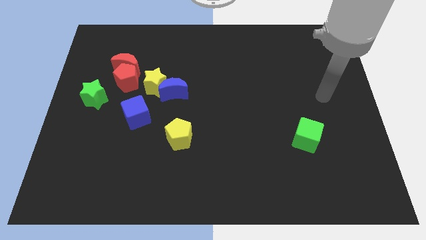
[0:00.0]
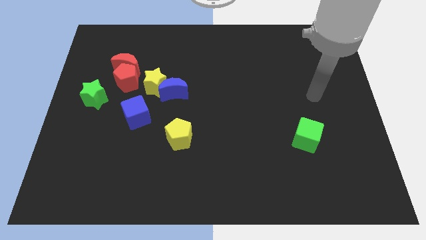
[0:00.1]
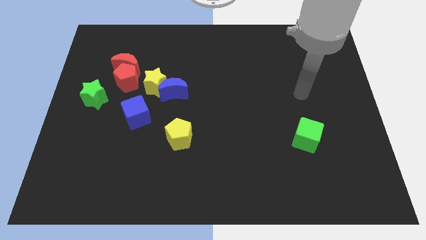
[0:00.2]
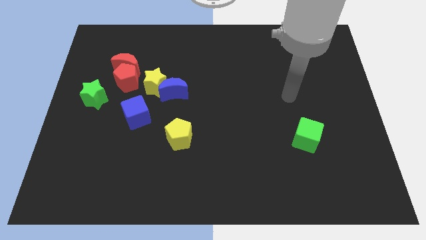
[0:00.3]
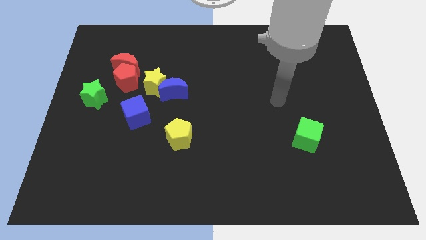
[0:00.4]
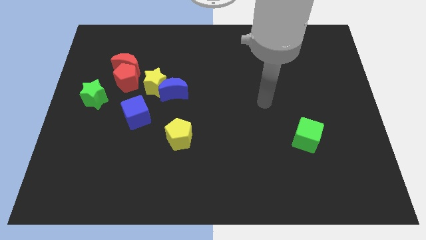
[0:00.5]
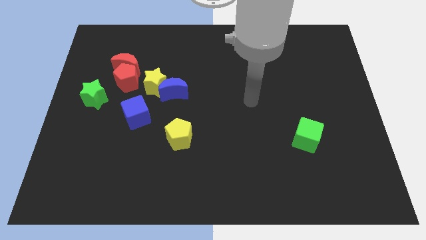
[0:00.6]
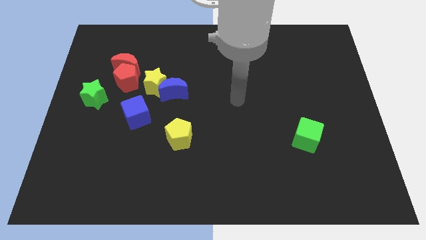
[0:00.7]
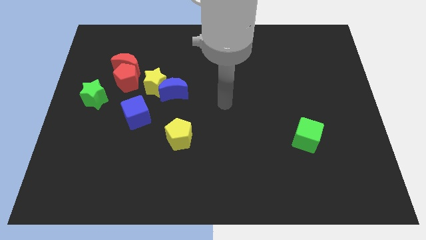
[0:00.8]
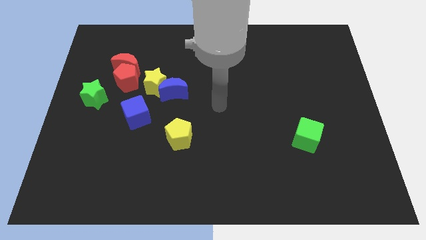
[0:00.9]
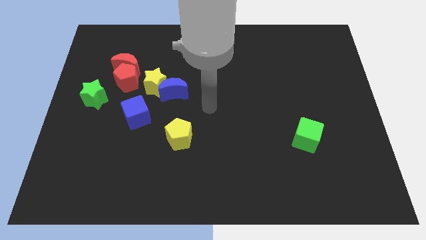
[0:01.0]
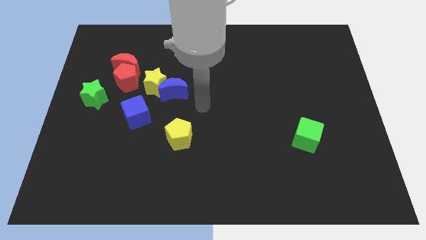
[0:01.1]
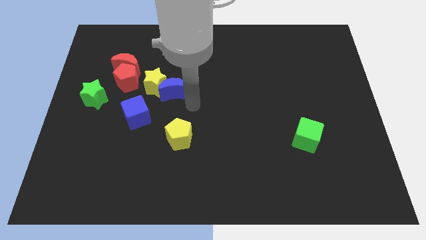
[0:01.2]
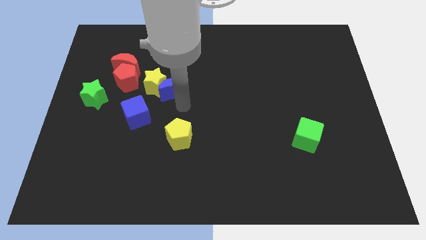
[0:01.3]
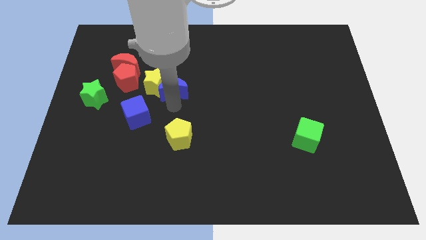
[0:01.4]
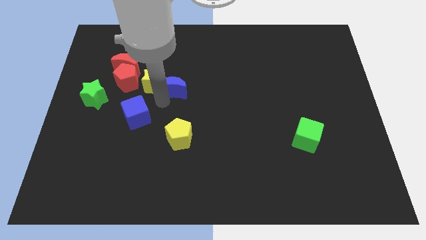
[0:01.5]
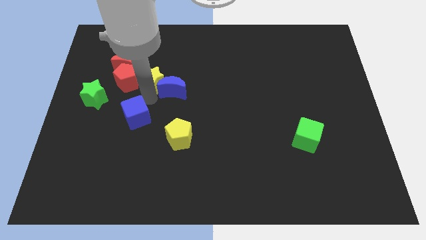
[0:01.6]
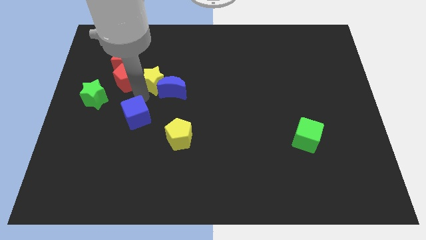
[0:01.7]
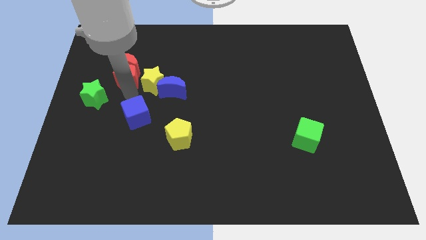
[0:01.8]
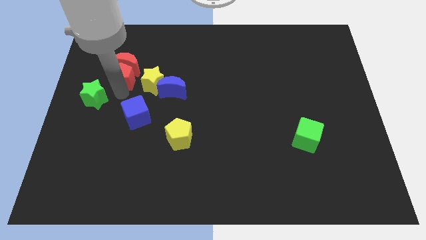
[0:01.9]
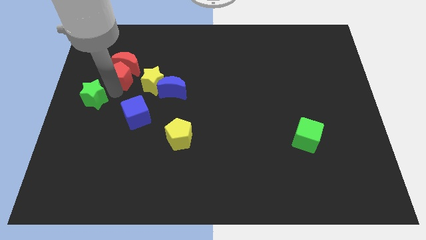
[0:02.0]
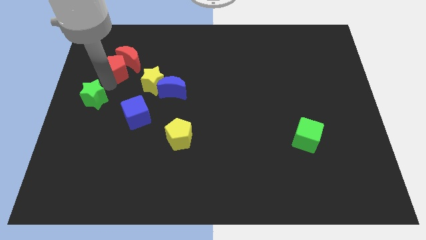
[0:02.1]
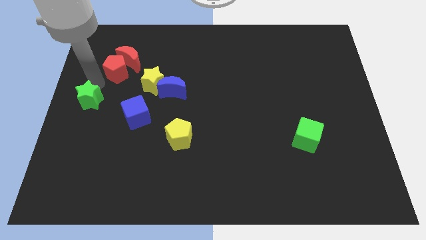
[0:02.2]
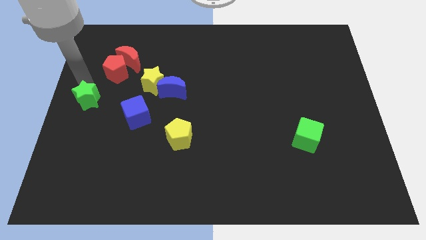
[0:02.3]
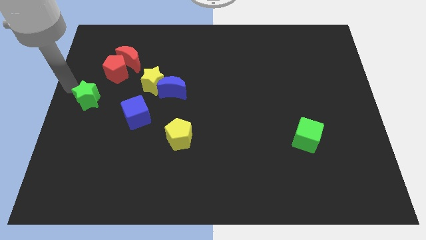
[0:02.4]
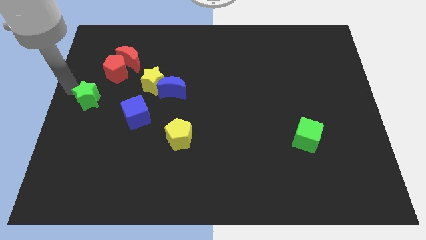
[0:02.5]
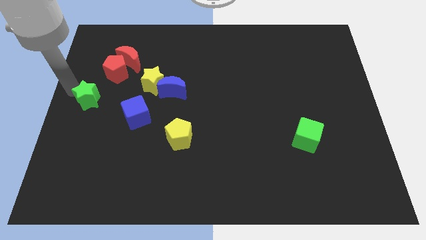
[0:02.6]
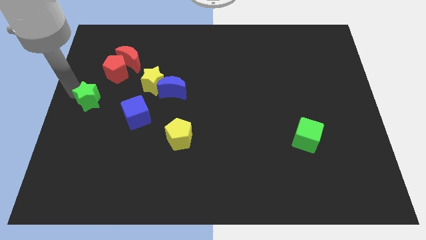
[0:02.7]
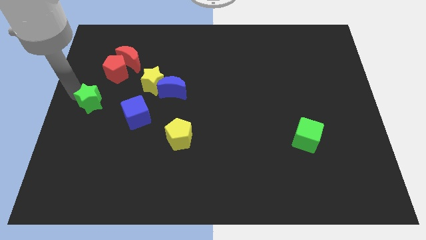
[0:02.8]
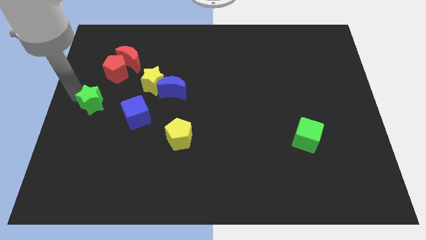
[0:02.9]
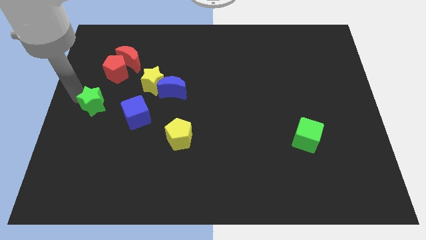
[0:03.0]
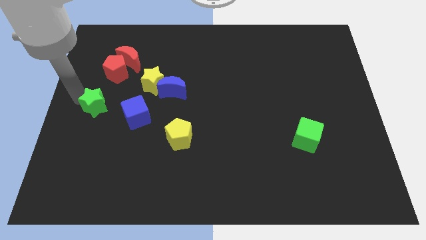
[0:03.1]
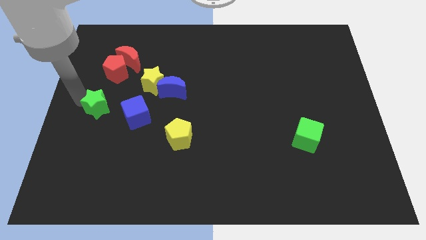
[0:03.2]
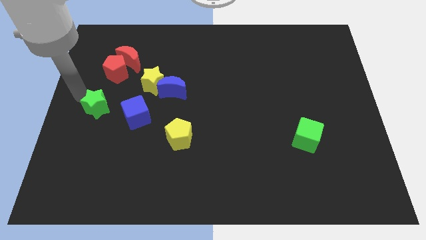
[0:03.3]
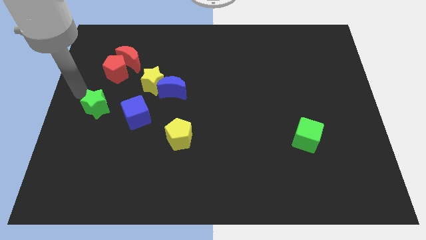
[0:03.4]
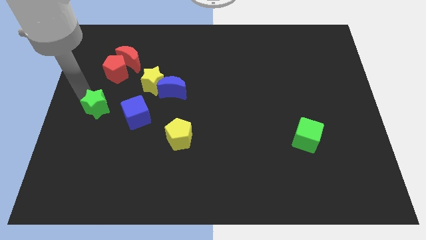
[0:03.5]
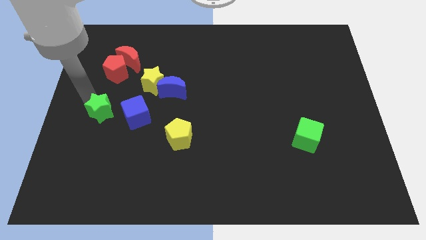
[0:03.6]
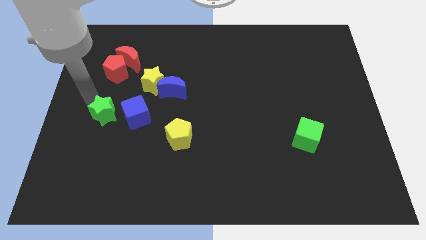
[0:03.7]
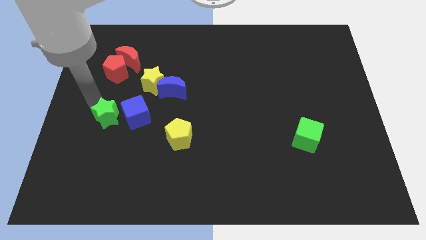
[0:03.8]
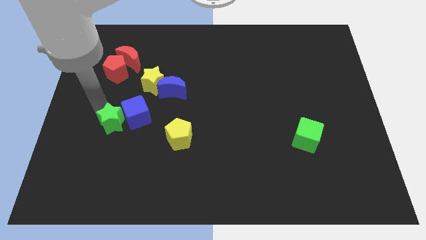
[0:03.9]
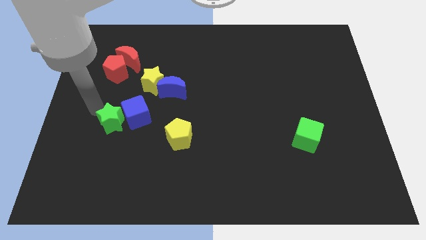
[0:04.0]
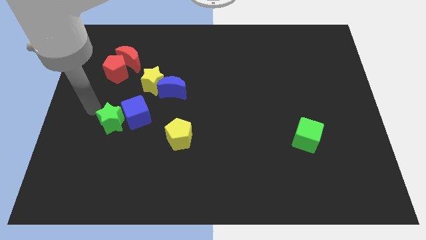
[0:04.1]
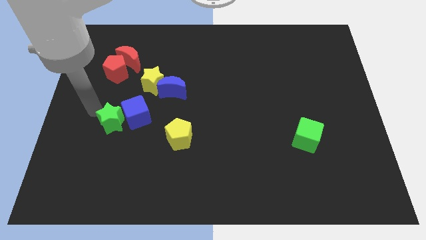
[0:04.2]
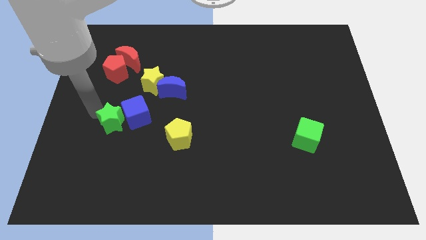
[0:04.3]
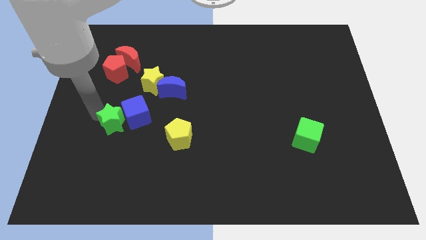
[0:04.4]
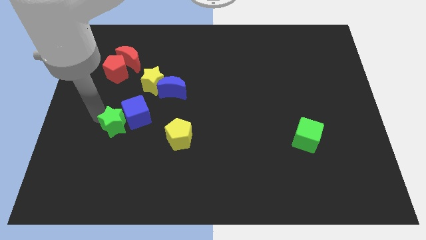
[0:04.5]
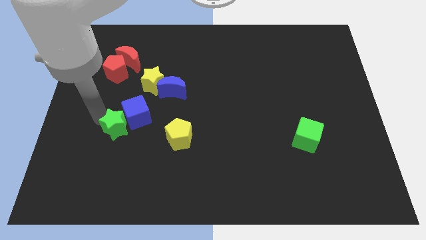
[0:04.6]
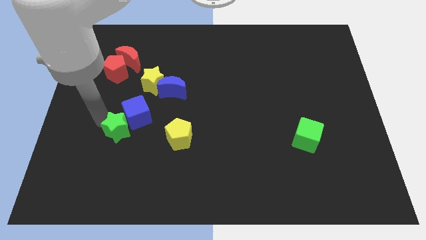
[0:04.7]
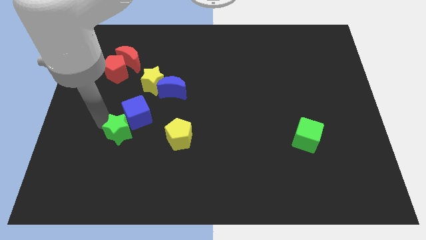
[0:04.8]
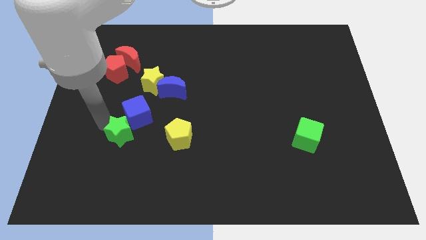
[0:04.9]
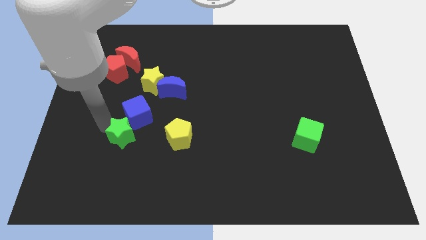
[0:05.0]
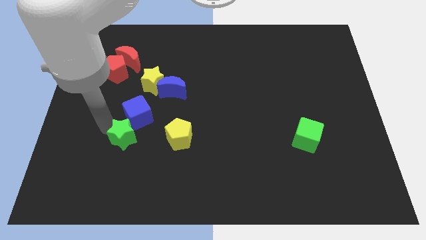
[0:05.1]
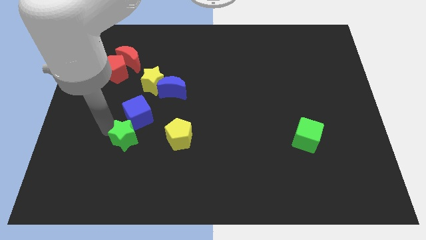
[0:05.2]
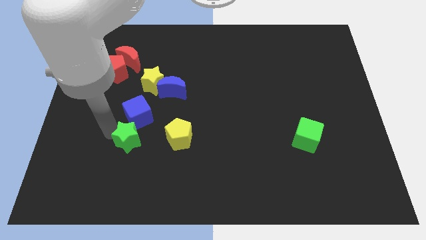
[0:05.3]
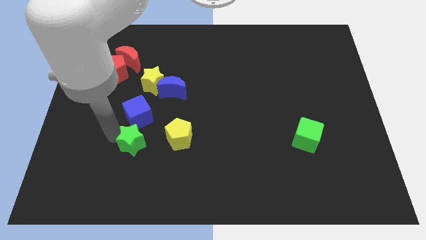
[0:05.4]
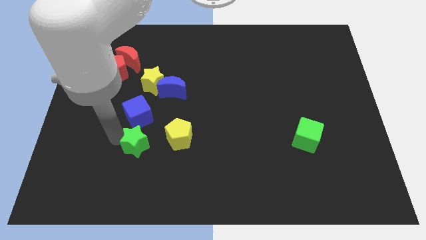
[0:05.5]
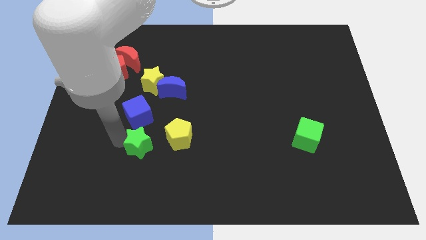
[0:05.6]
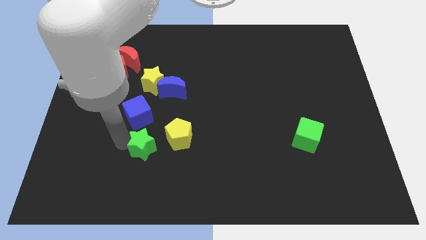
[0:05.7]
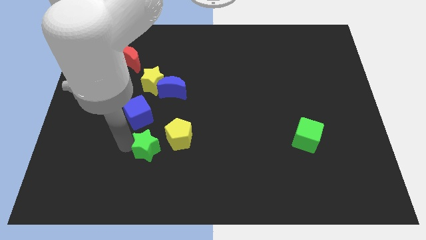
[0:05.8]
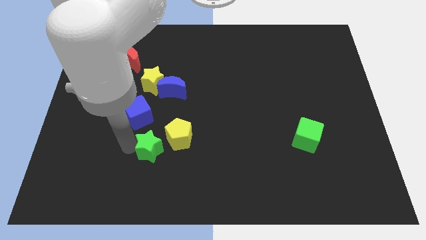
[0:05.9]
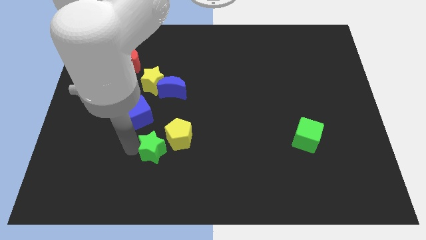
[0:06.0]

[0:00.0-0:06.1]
move the green star towards the yellow pentagon

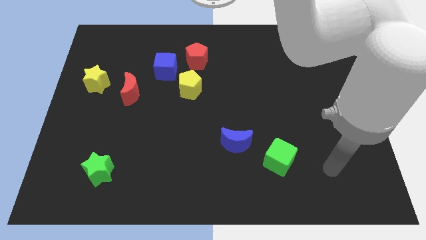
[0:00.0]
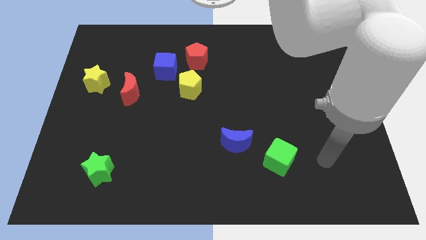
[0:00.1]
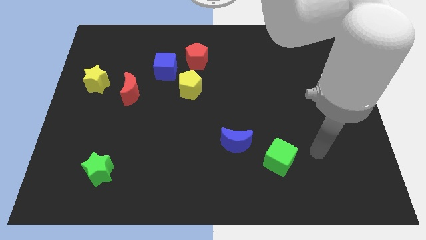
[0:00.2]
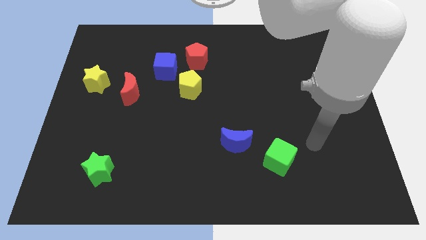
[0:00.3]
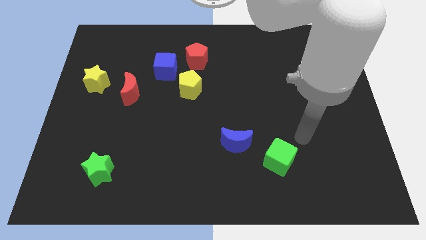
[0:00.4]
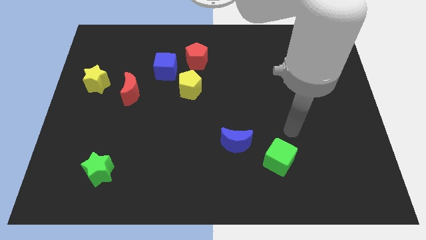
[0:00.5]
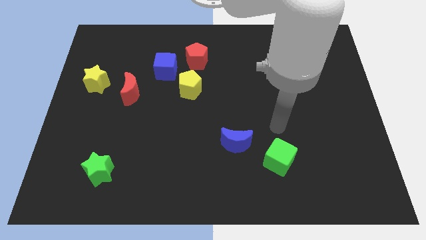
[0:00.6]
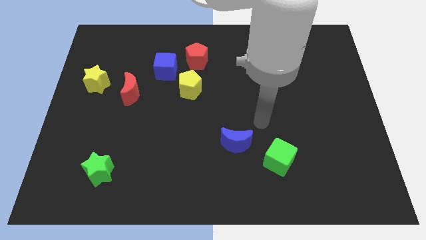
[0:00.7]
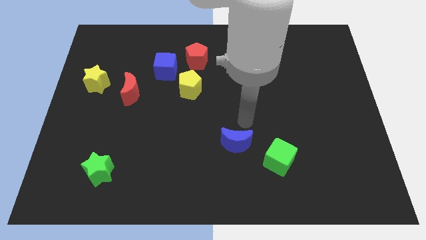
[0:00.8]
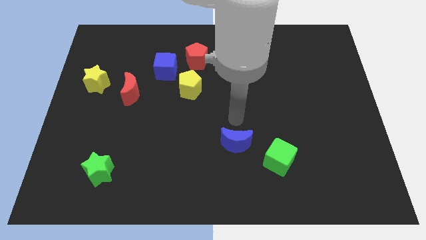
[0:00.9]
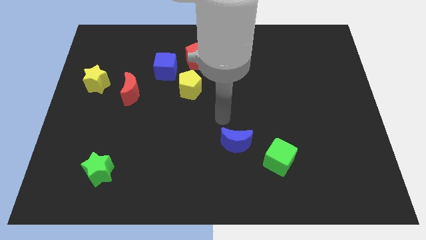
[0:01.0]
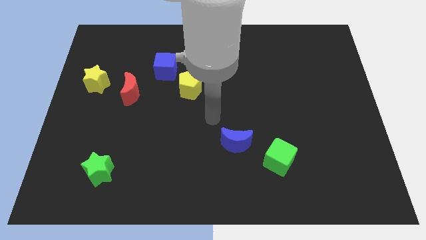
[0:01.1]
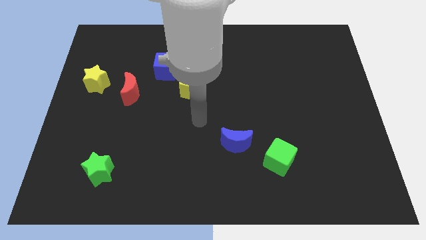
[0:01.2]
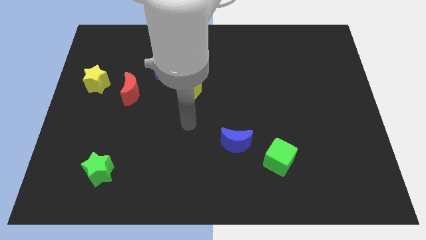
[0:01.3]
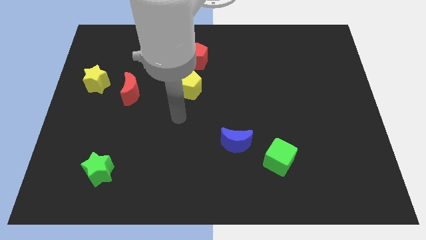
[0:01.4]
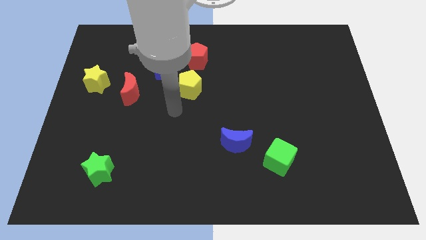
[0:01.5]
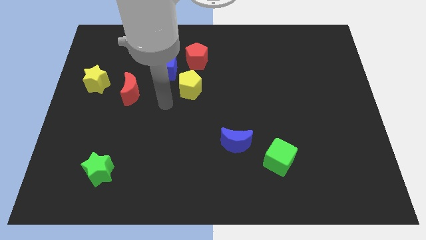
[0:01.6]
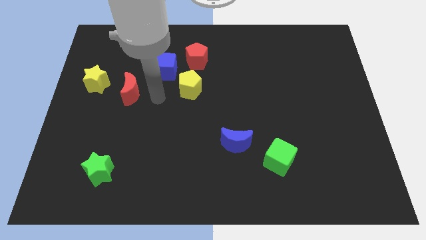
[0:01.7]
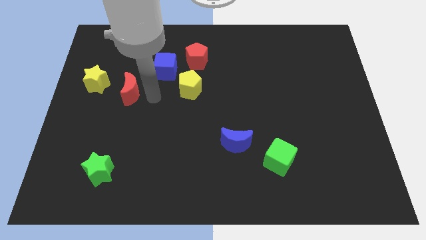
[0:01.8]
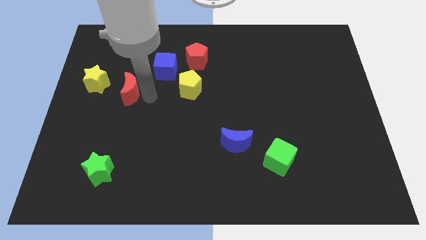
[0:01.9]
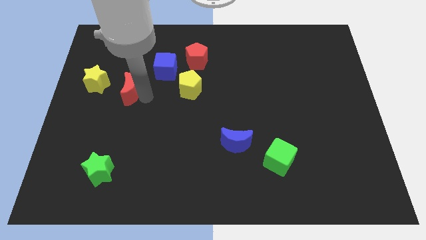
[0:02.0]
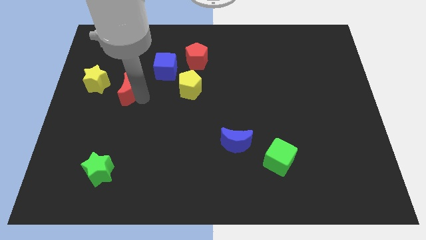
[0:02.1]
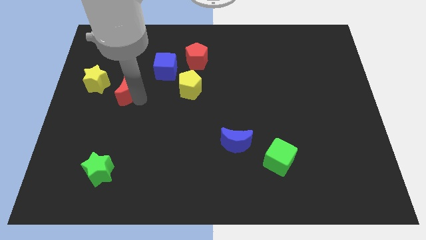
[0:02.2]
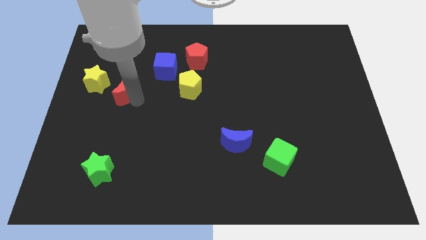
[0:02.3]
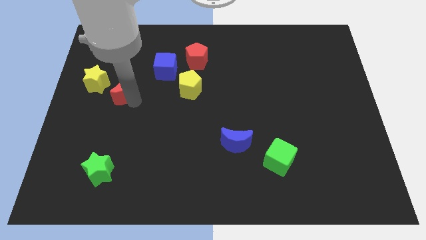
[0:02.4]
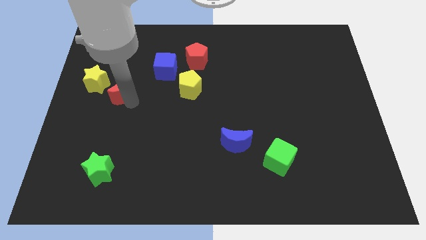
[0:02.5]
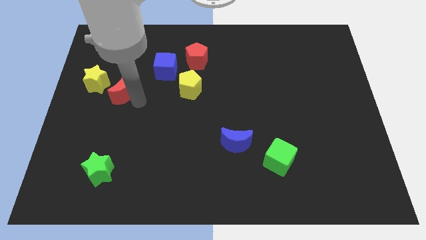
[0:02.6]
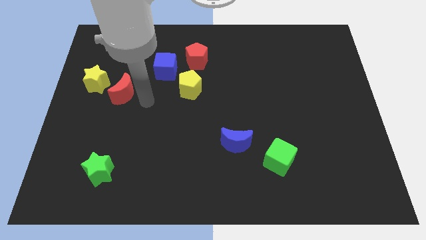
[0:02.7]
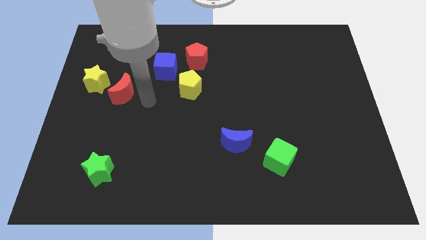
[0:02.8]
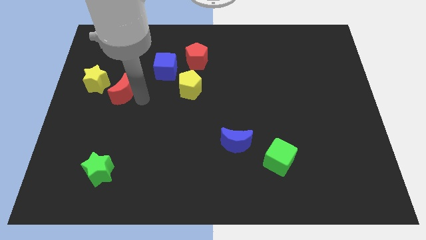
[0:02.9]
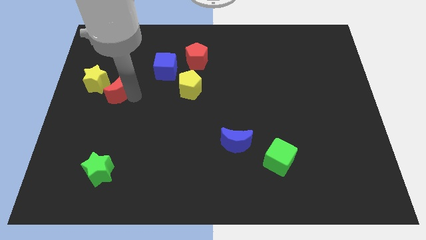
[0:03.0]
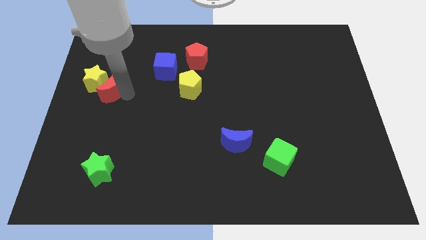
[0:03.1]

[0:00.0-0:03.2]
slide the red moon to the yellow star
